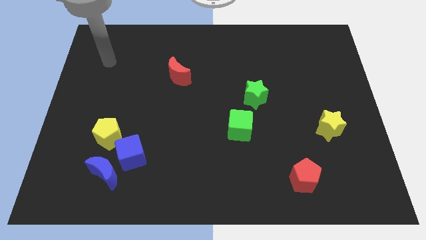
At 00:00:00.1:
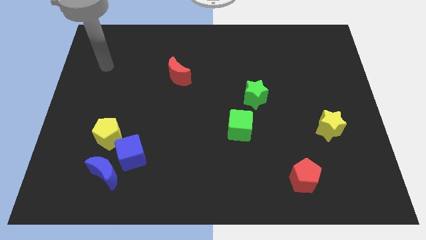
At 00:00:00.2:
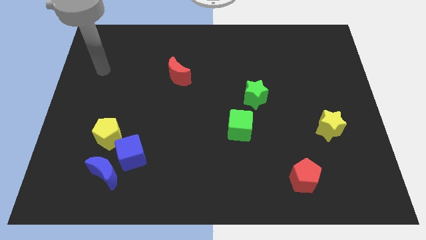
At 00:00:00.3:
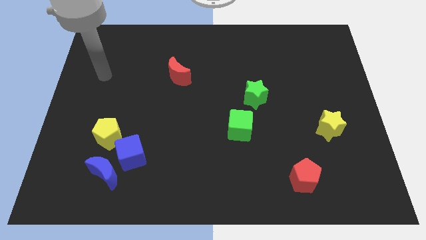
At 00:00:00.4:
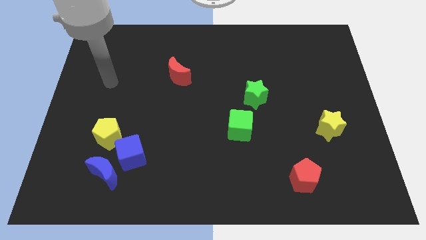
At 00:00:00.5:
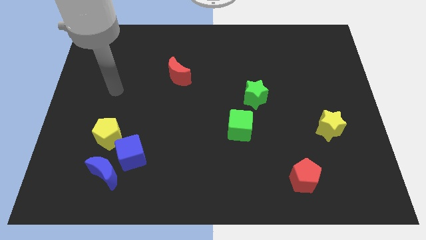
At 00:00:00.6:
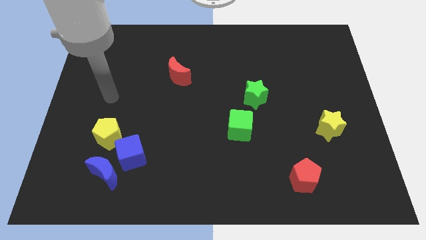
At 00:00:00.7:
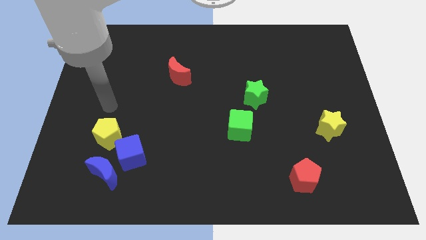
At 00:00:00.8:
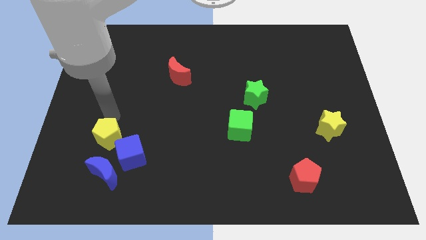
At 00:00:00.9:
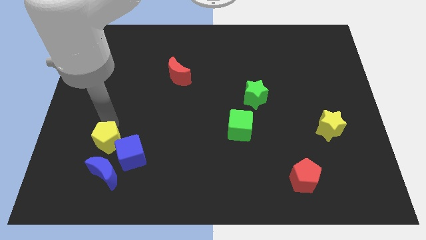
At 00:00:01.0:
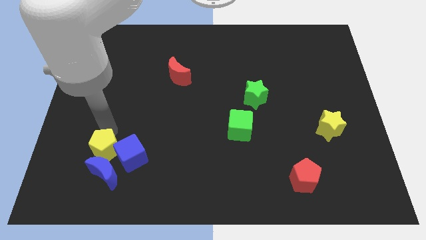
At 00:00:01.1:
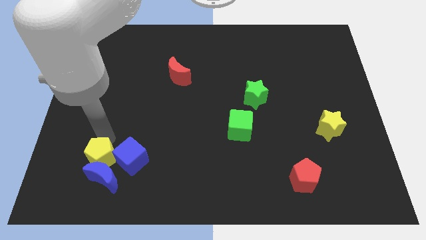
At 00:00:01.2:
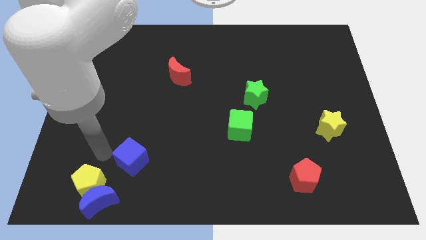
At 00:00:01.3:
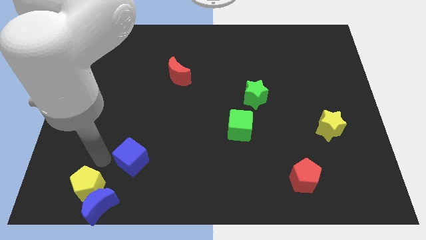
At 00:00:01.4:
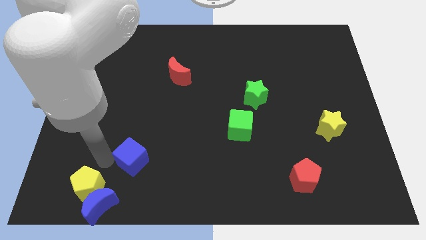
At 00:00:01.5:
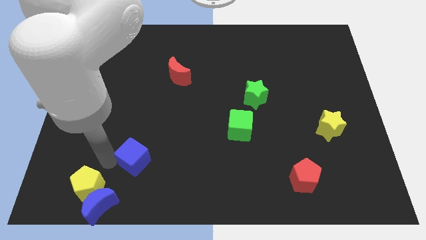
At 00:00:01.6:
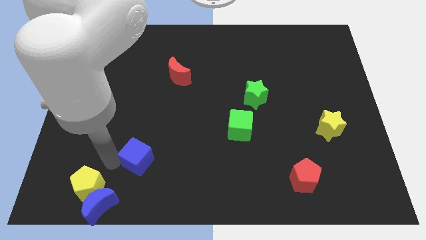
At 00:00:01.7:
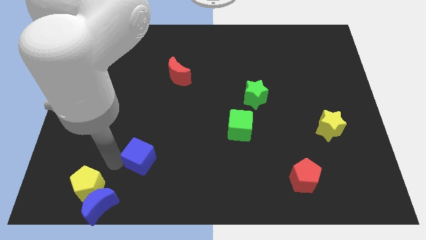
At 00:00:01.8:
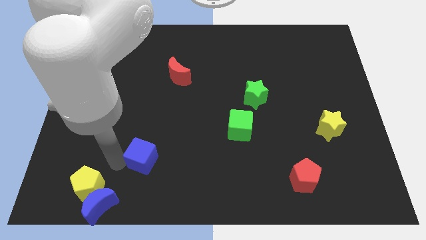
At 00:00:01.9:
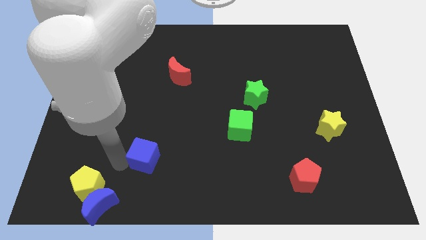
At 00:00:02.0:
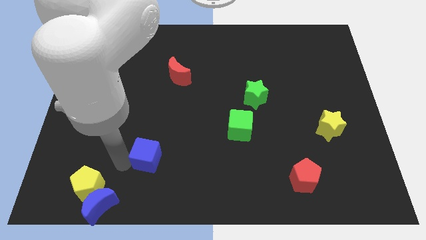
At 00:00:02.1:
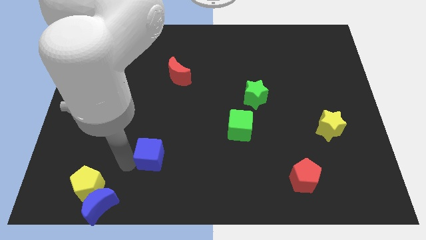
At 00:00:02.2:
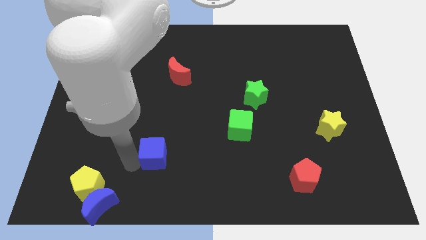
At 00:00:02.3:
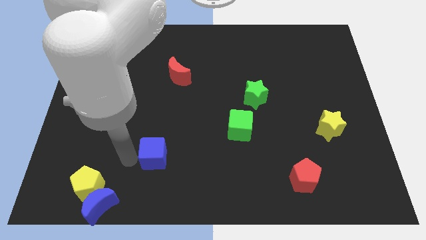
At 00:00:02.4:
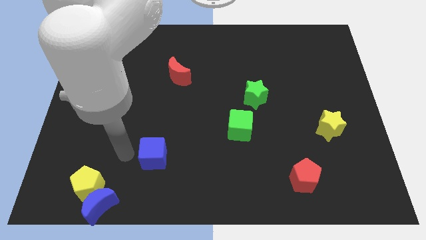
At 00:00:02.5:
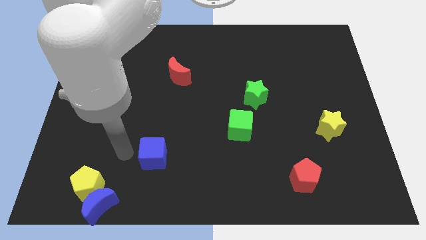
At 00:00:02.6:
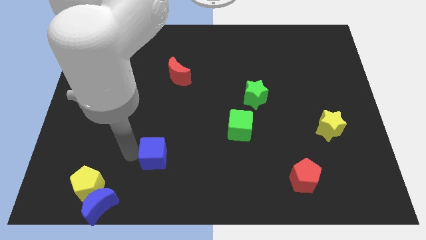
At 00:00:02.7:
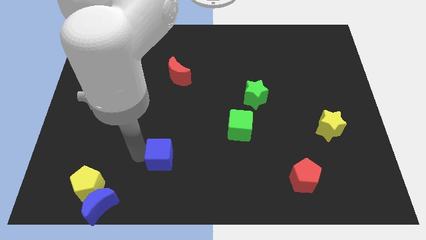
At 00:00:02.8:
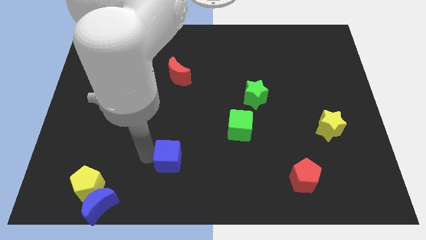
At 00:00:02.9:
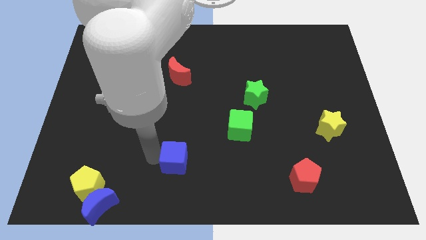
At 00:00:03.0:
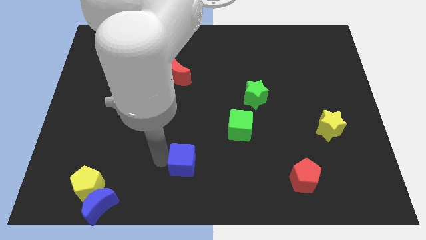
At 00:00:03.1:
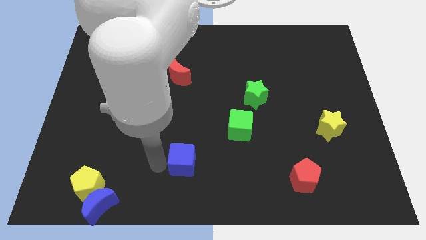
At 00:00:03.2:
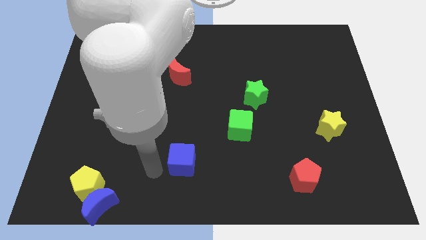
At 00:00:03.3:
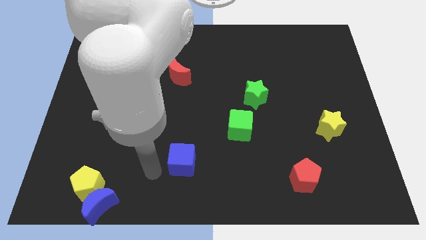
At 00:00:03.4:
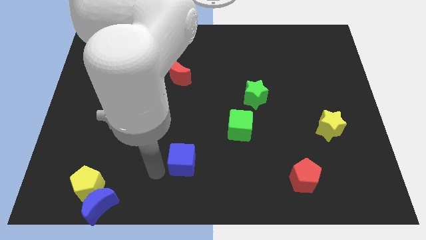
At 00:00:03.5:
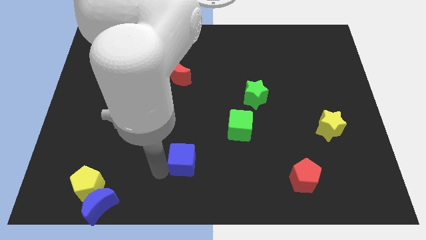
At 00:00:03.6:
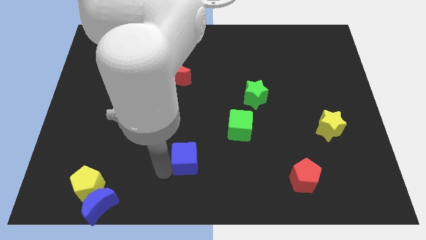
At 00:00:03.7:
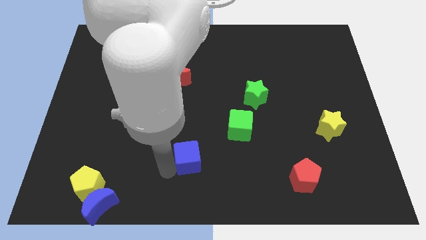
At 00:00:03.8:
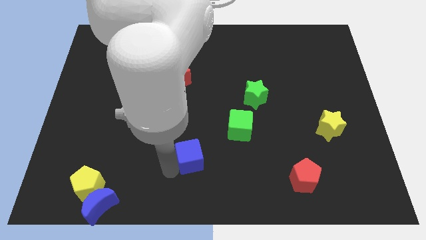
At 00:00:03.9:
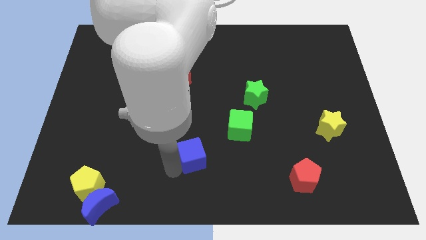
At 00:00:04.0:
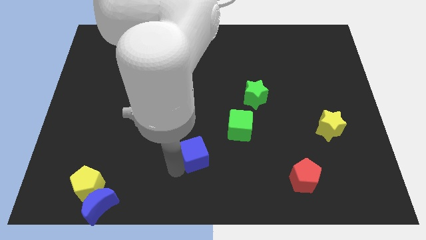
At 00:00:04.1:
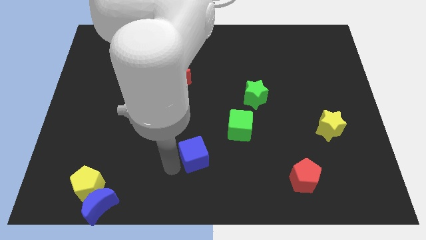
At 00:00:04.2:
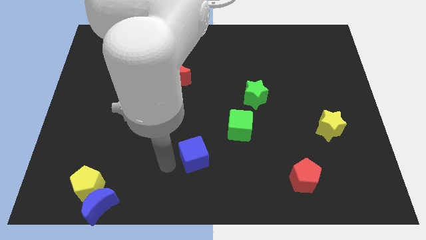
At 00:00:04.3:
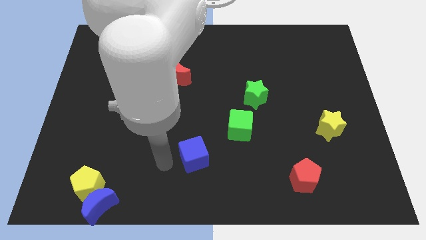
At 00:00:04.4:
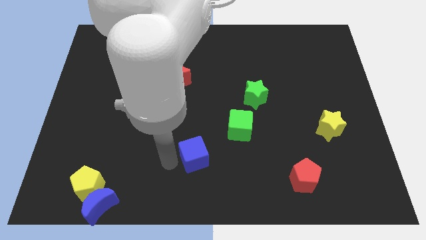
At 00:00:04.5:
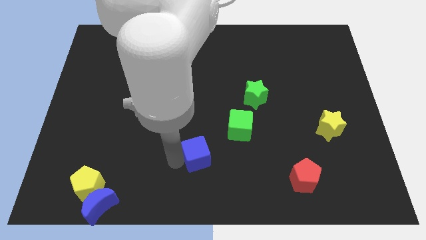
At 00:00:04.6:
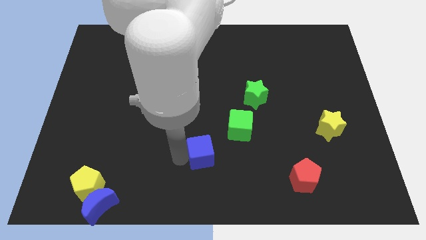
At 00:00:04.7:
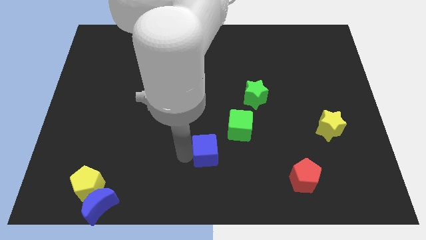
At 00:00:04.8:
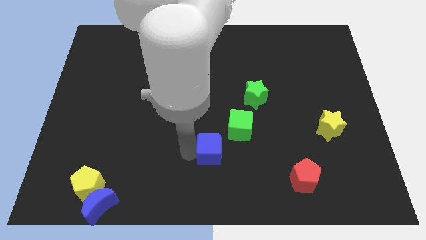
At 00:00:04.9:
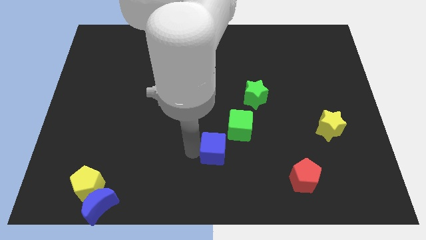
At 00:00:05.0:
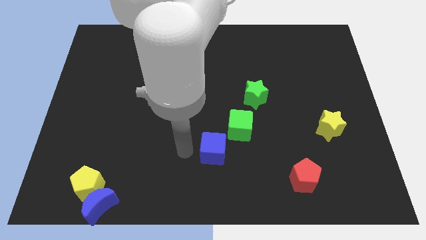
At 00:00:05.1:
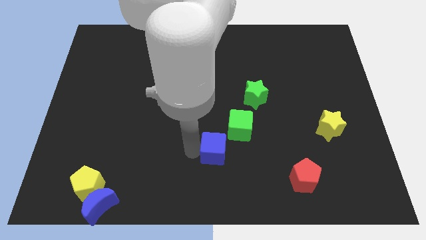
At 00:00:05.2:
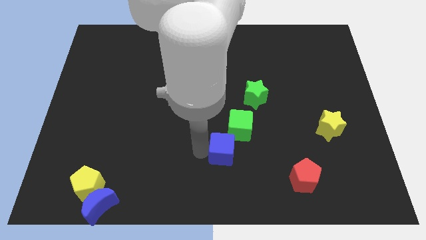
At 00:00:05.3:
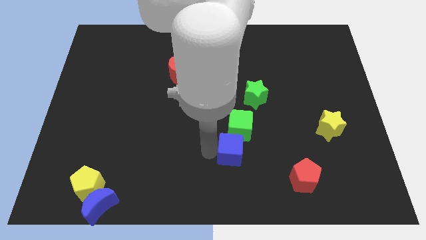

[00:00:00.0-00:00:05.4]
push the blue cube to the right

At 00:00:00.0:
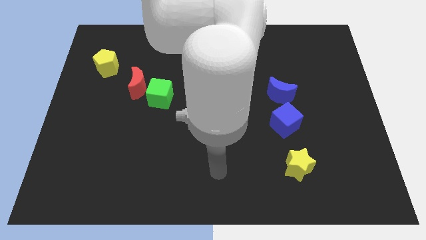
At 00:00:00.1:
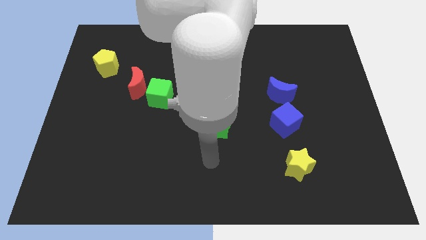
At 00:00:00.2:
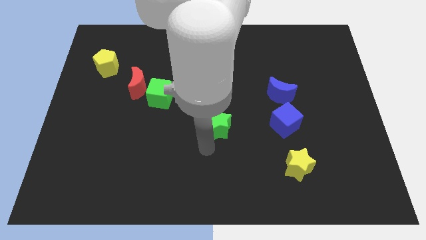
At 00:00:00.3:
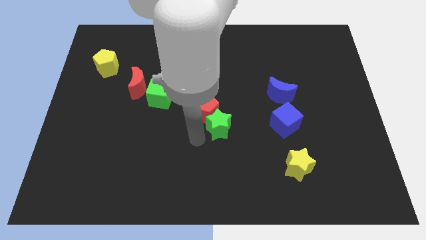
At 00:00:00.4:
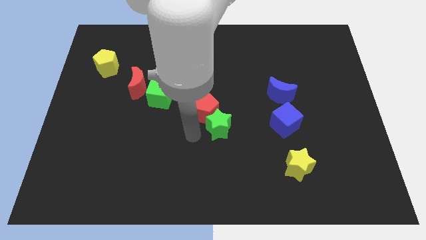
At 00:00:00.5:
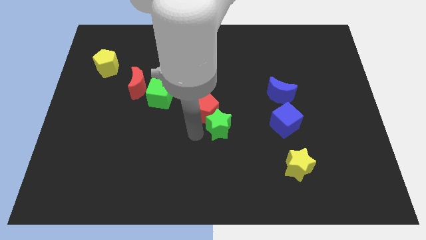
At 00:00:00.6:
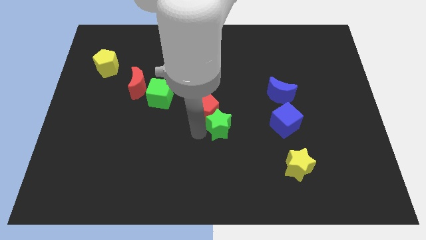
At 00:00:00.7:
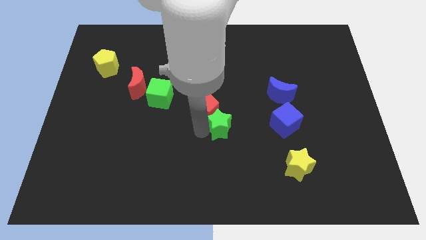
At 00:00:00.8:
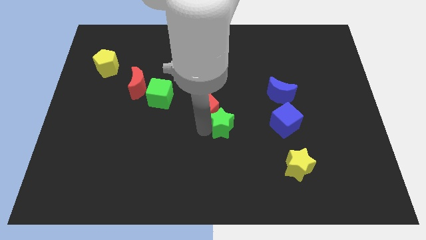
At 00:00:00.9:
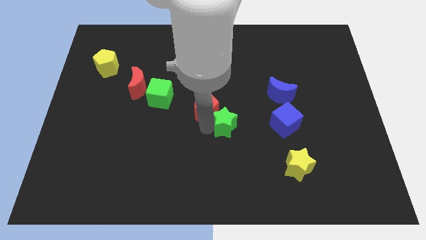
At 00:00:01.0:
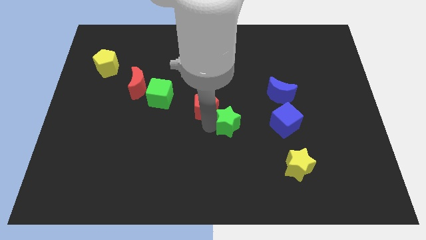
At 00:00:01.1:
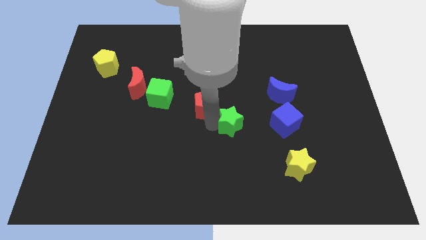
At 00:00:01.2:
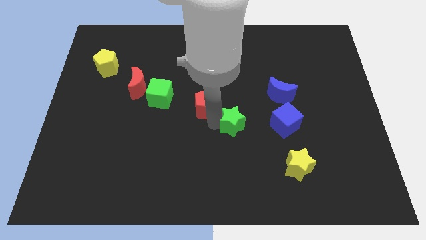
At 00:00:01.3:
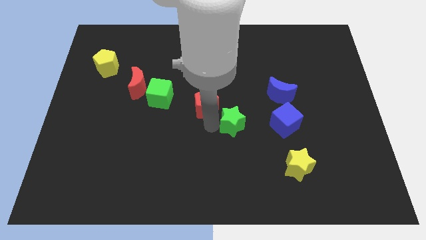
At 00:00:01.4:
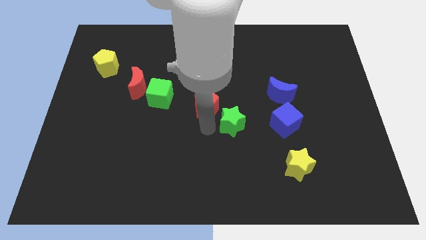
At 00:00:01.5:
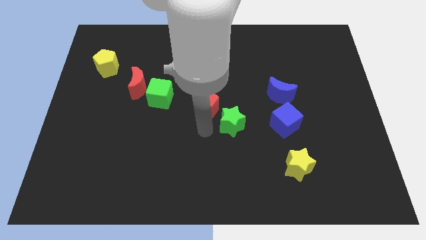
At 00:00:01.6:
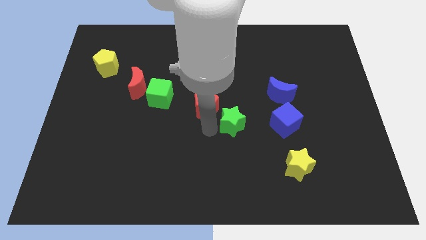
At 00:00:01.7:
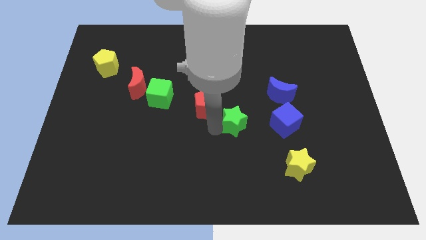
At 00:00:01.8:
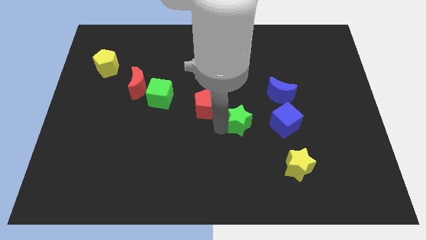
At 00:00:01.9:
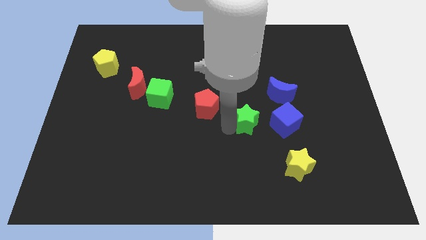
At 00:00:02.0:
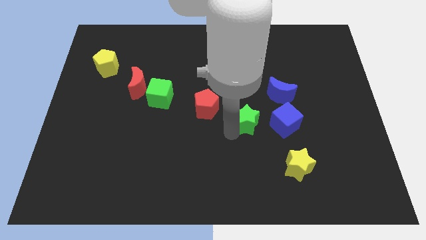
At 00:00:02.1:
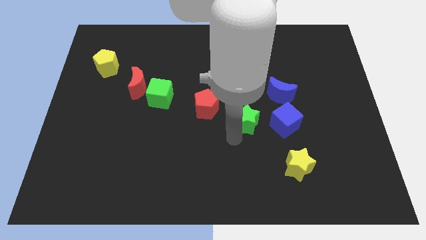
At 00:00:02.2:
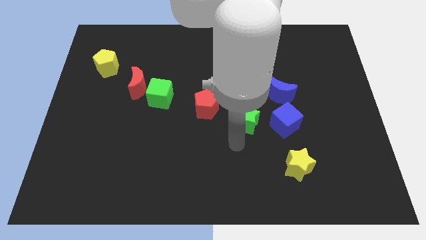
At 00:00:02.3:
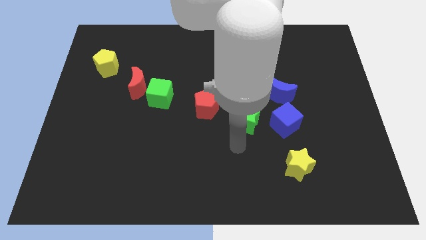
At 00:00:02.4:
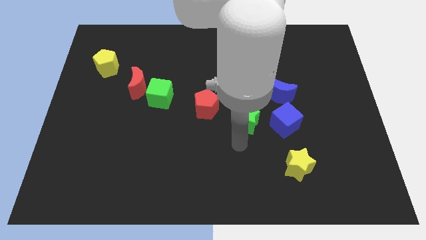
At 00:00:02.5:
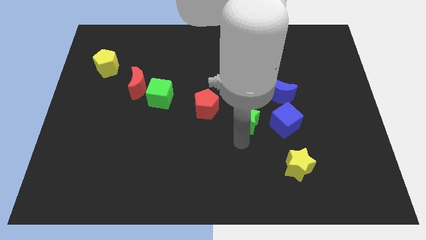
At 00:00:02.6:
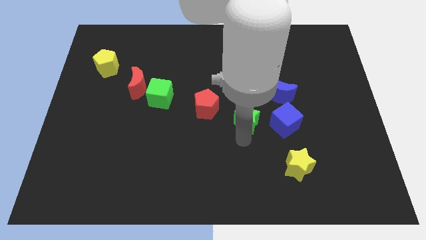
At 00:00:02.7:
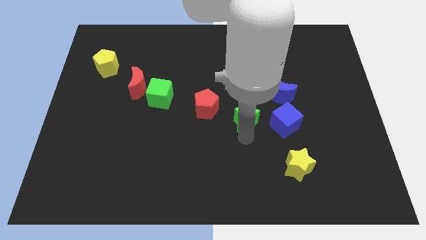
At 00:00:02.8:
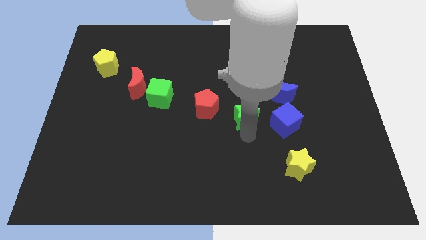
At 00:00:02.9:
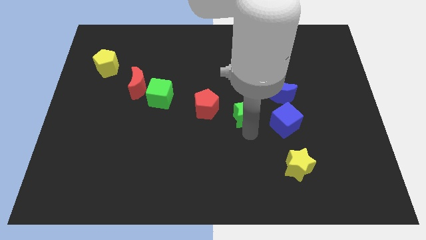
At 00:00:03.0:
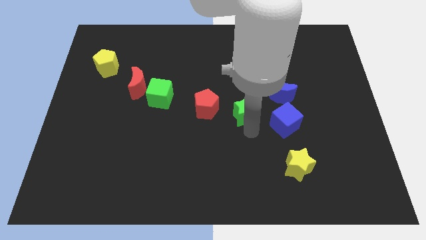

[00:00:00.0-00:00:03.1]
push the green star upwards and to the right diagonally a little
